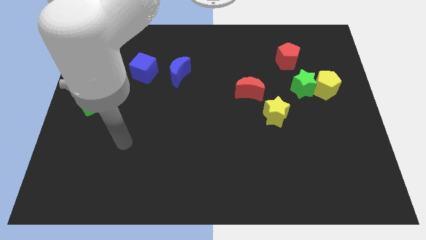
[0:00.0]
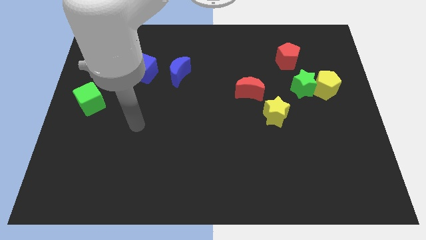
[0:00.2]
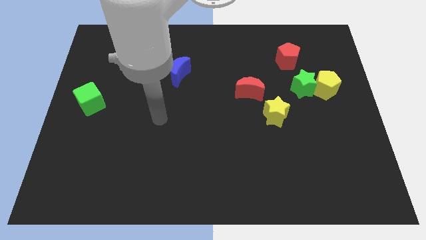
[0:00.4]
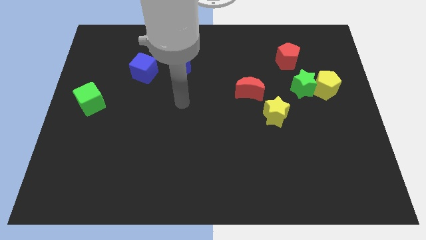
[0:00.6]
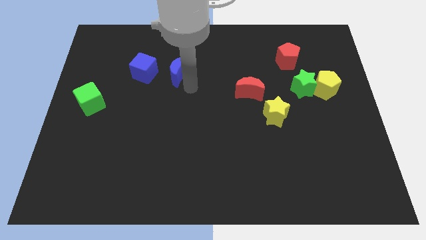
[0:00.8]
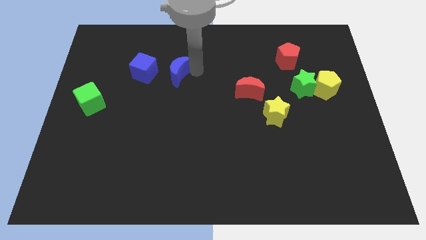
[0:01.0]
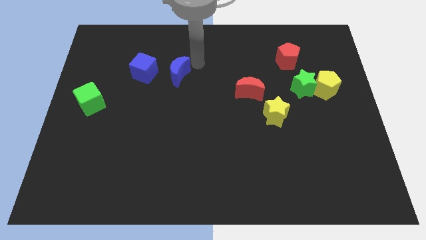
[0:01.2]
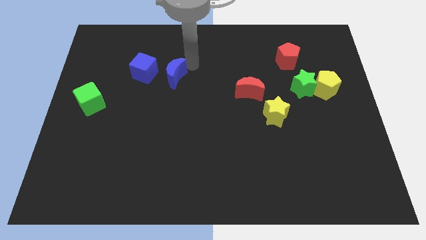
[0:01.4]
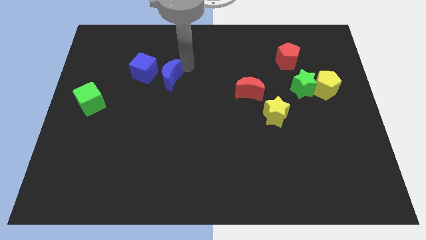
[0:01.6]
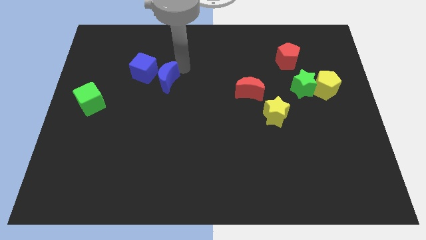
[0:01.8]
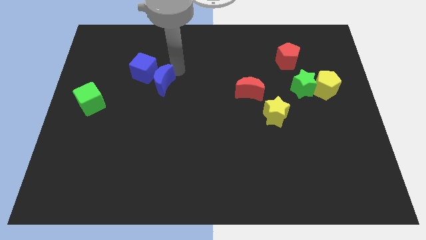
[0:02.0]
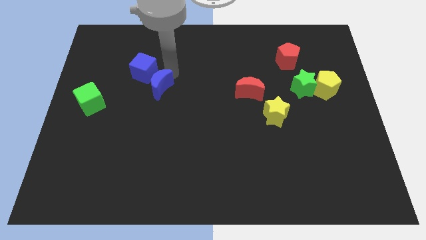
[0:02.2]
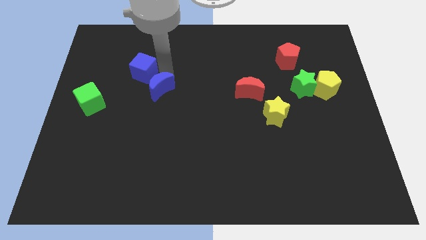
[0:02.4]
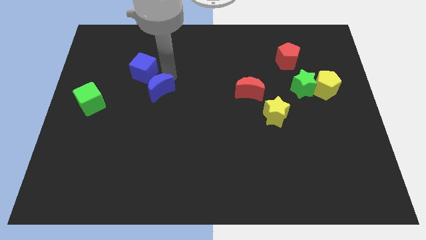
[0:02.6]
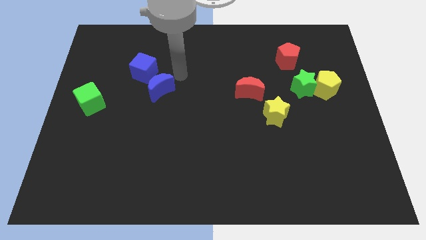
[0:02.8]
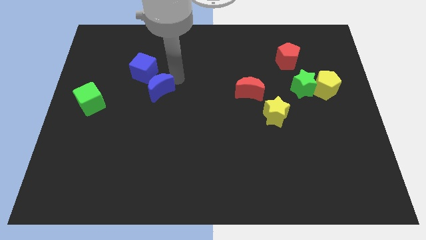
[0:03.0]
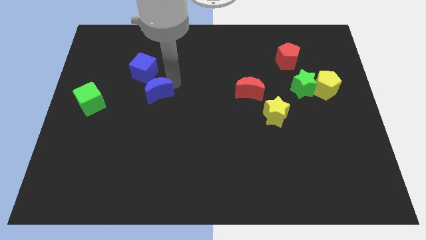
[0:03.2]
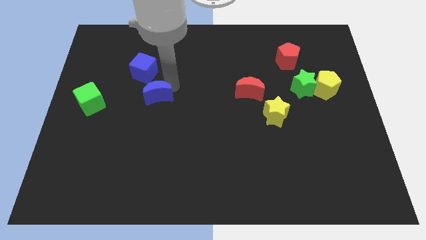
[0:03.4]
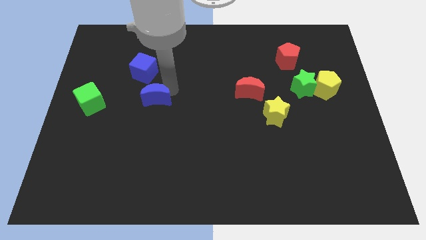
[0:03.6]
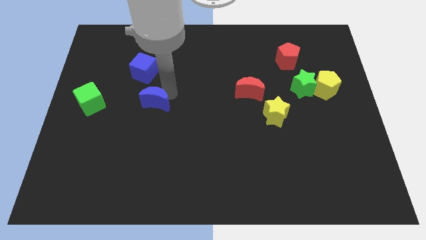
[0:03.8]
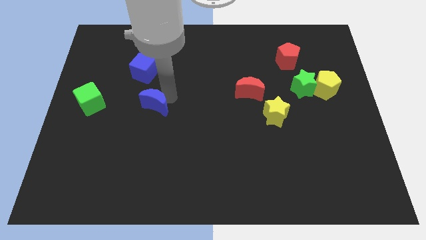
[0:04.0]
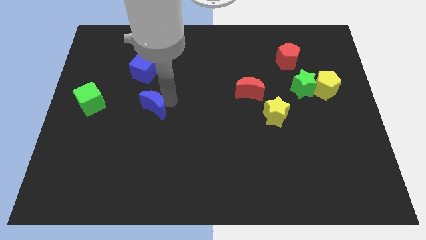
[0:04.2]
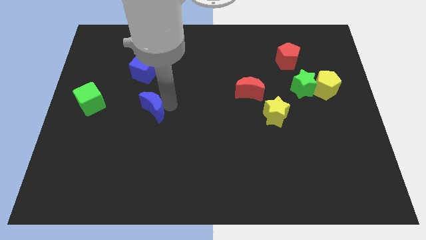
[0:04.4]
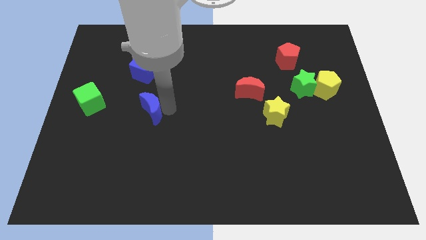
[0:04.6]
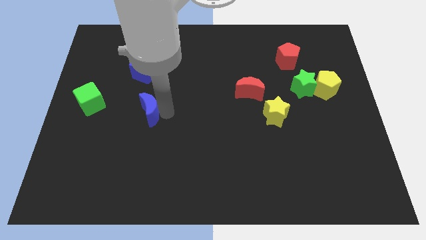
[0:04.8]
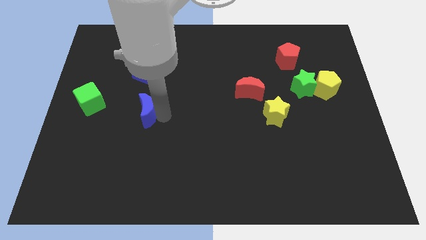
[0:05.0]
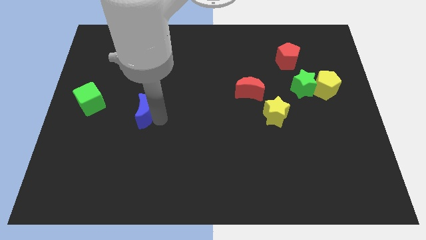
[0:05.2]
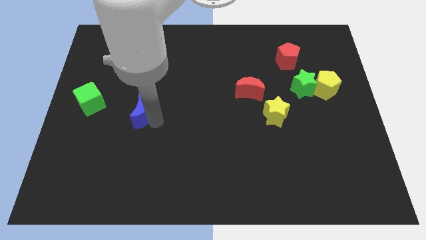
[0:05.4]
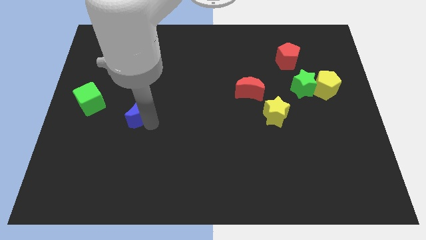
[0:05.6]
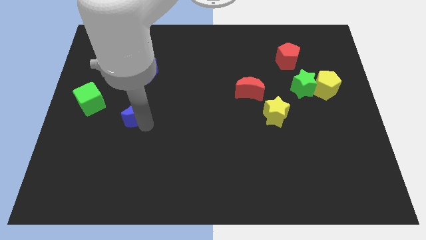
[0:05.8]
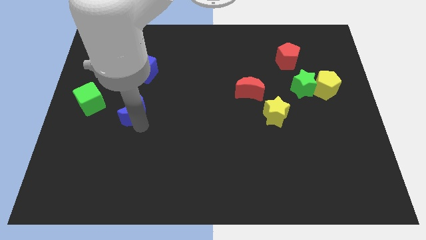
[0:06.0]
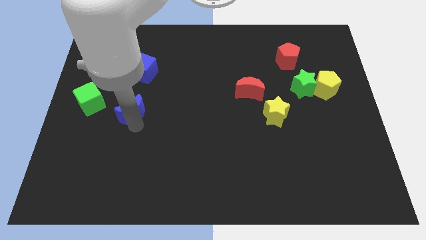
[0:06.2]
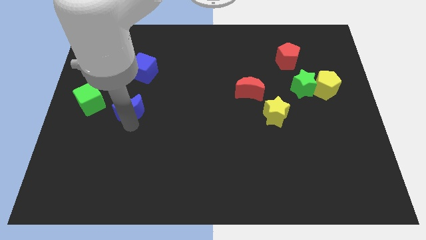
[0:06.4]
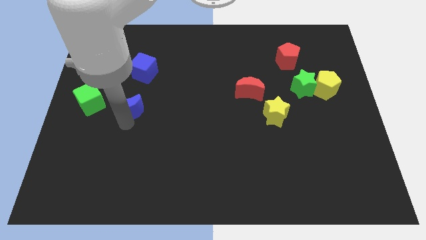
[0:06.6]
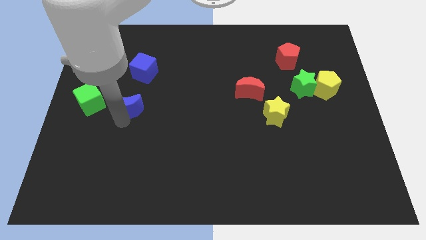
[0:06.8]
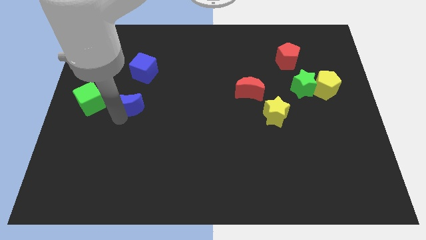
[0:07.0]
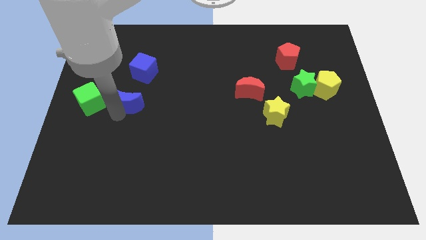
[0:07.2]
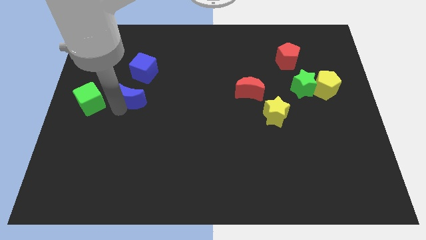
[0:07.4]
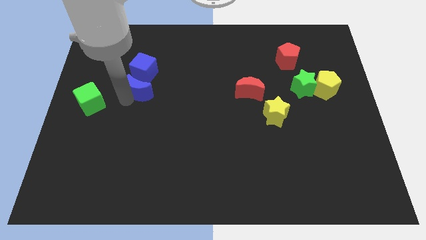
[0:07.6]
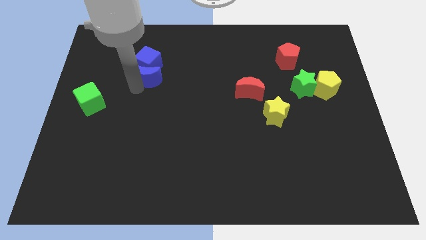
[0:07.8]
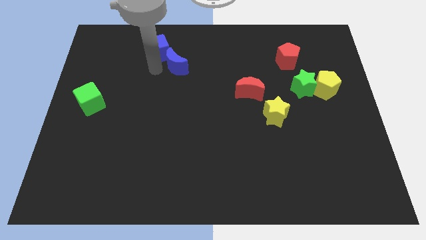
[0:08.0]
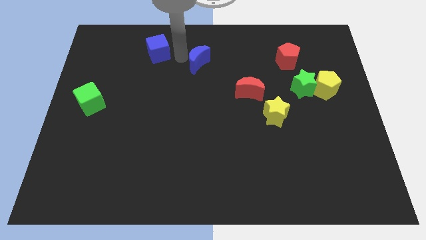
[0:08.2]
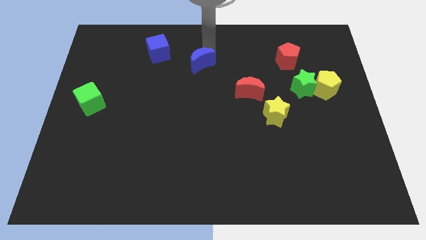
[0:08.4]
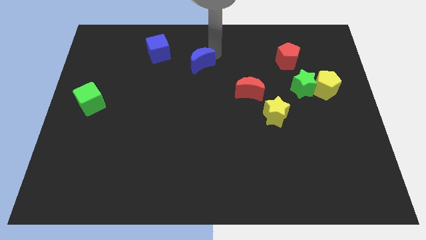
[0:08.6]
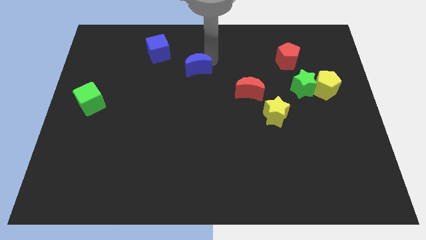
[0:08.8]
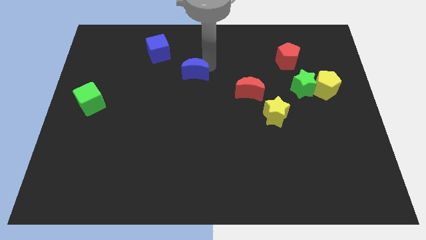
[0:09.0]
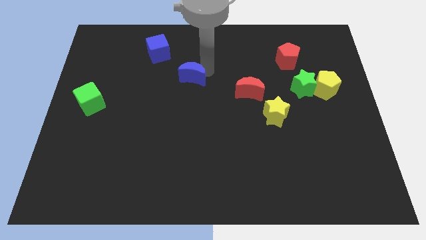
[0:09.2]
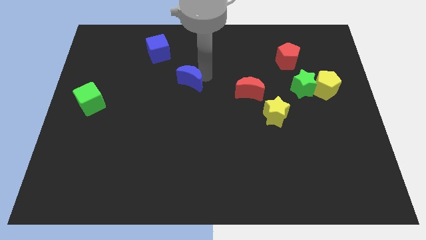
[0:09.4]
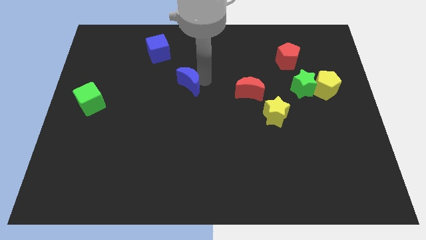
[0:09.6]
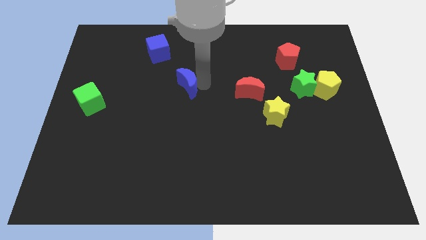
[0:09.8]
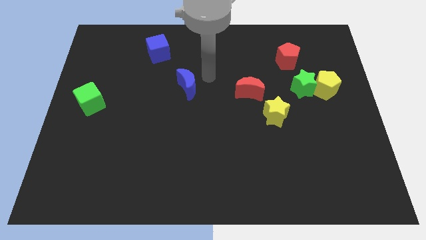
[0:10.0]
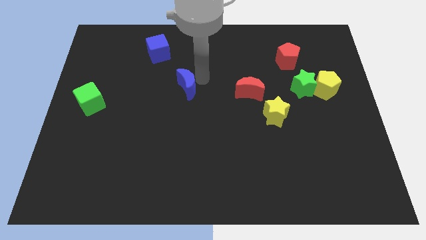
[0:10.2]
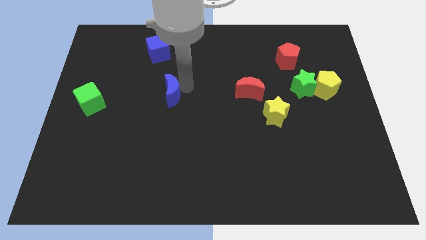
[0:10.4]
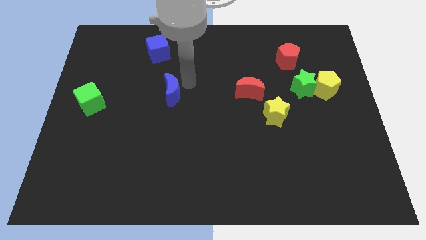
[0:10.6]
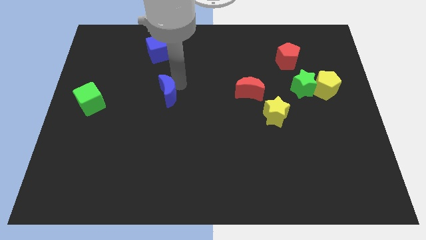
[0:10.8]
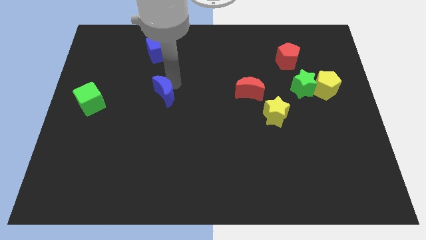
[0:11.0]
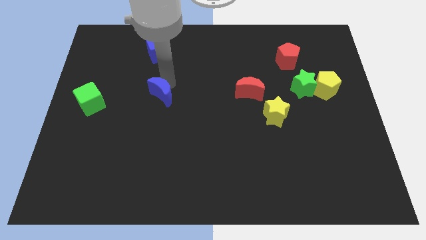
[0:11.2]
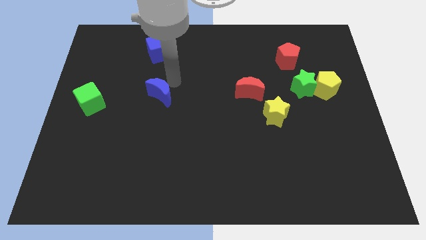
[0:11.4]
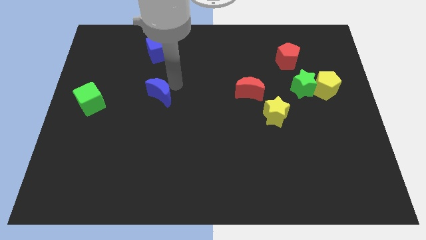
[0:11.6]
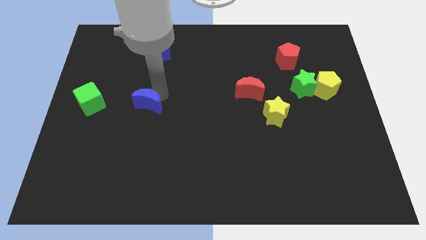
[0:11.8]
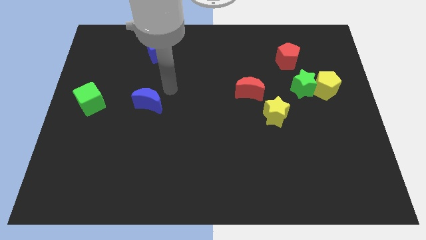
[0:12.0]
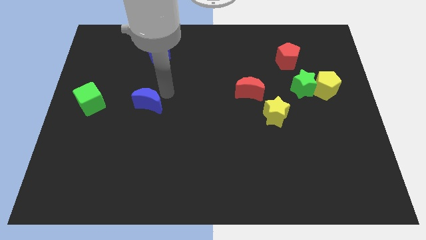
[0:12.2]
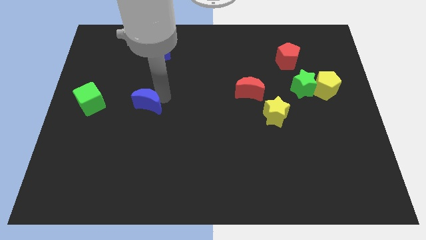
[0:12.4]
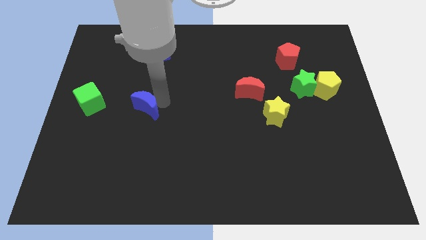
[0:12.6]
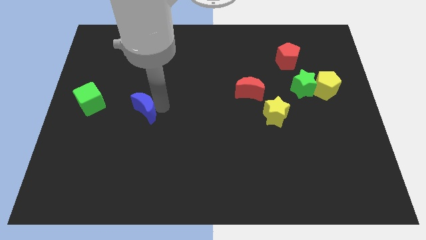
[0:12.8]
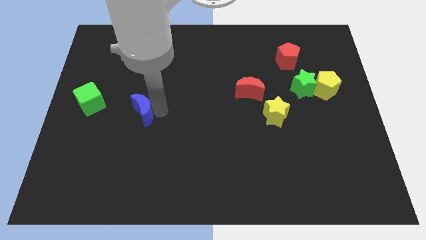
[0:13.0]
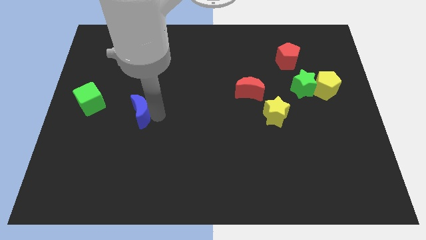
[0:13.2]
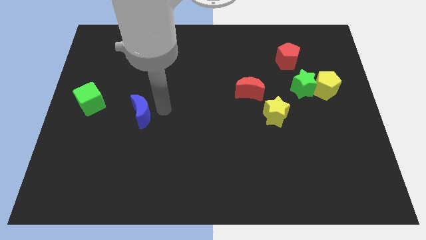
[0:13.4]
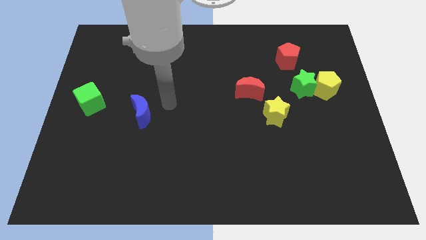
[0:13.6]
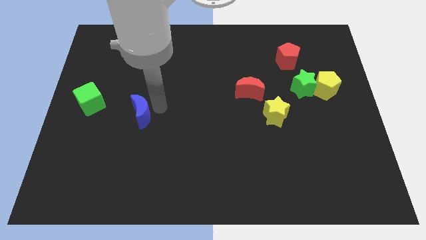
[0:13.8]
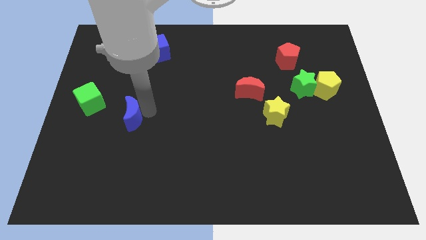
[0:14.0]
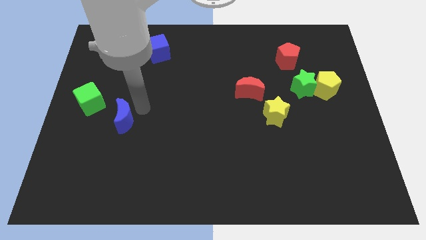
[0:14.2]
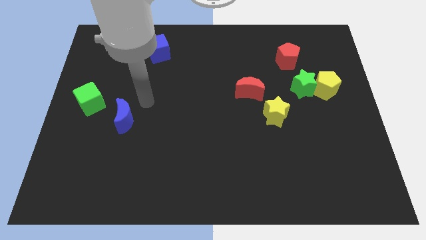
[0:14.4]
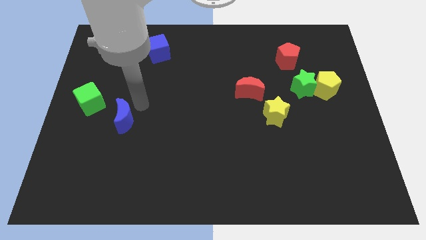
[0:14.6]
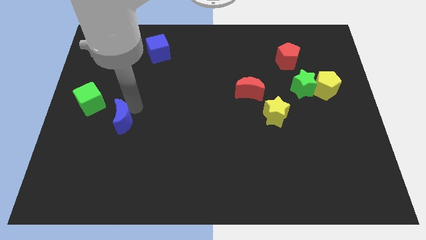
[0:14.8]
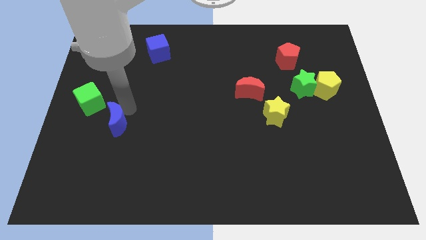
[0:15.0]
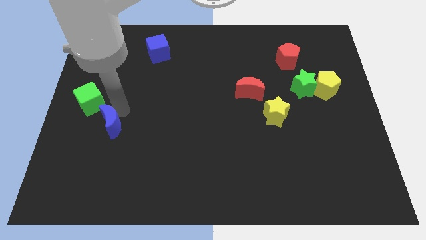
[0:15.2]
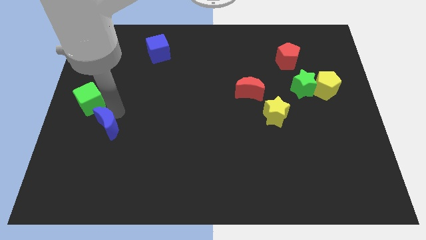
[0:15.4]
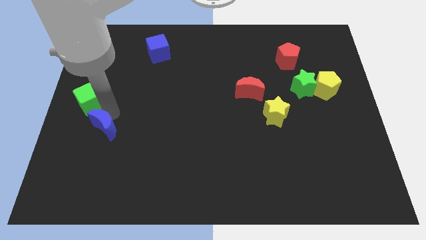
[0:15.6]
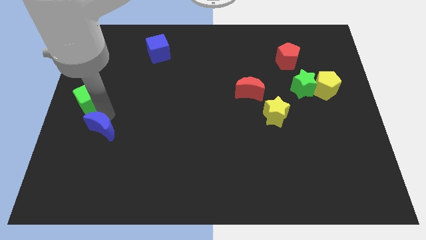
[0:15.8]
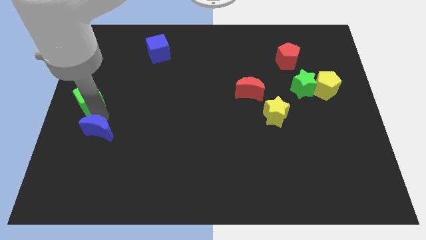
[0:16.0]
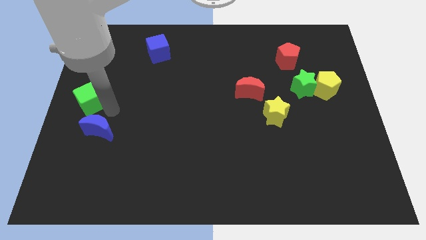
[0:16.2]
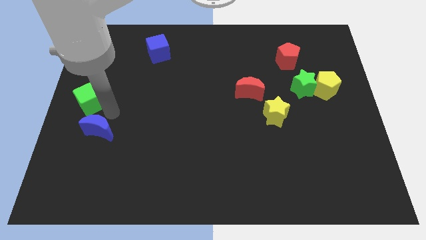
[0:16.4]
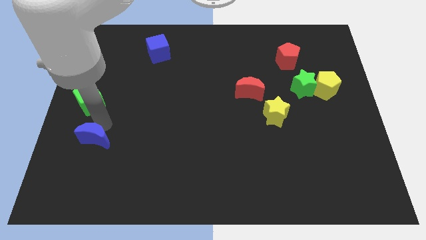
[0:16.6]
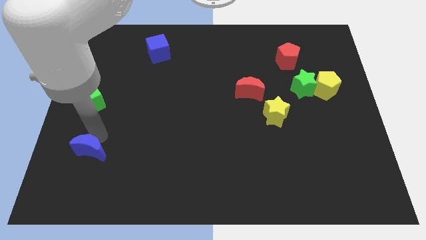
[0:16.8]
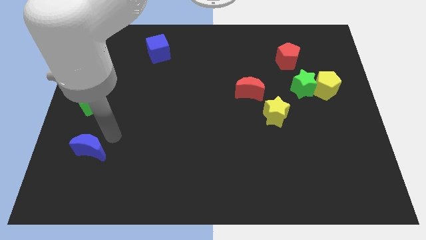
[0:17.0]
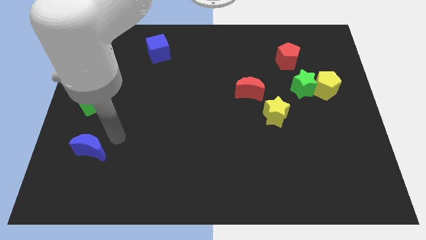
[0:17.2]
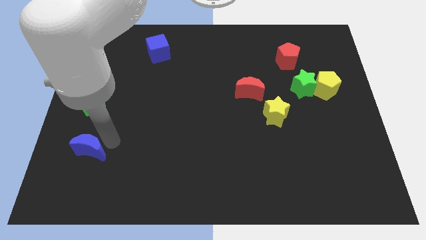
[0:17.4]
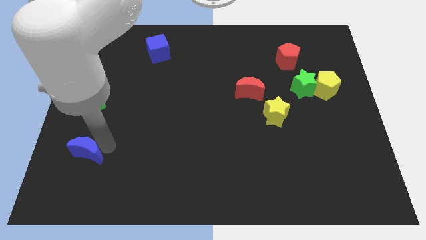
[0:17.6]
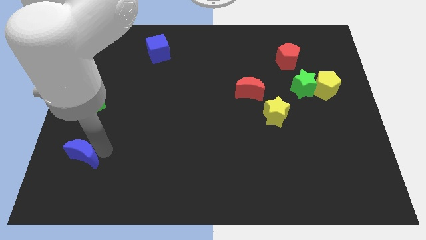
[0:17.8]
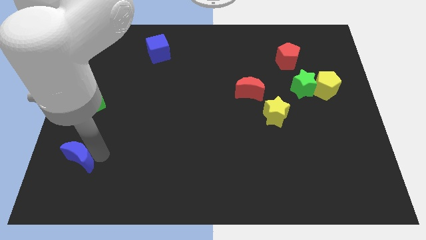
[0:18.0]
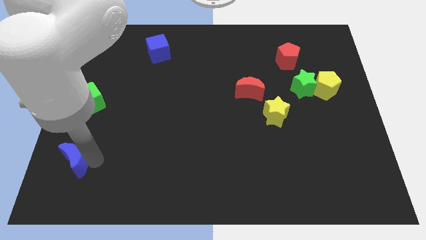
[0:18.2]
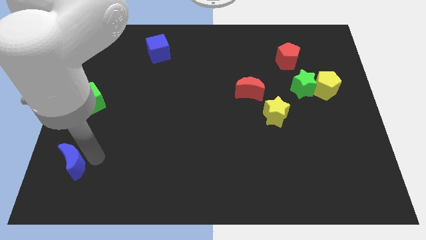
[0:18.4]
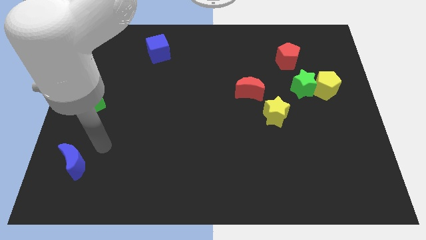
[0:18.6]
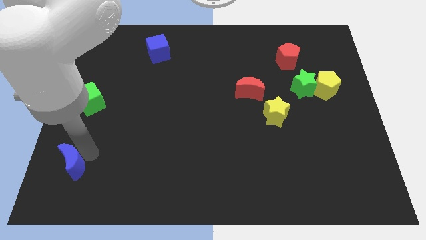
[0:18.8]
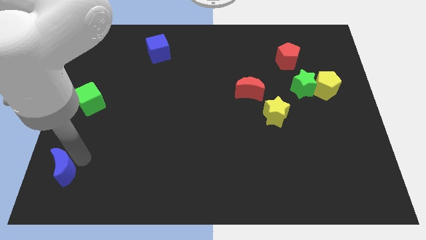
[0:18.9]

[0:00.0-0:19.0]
slide the blue moon to the bottom left corner
